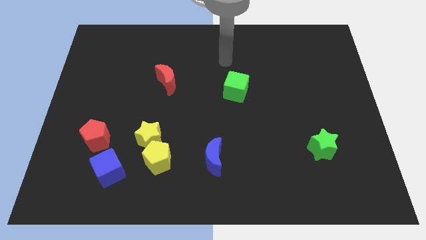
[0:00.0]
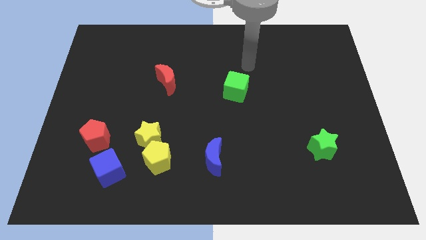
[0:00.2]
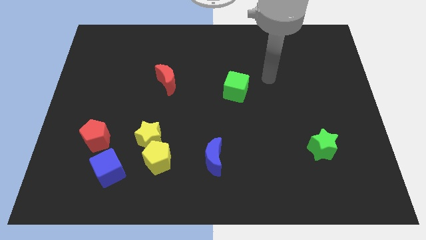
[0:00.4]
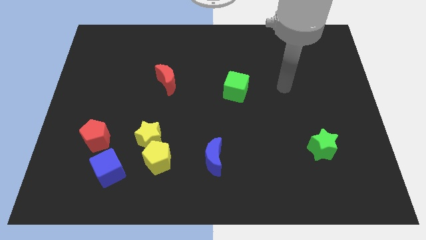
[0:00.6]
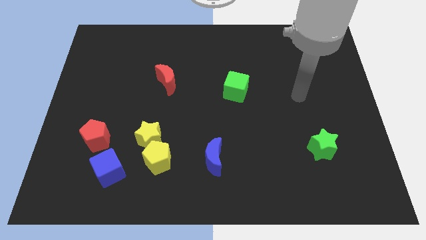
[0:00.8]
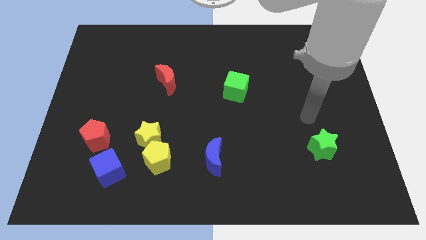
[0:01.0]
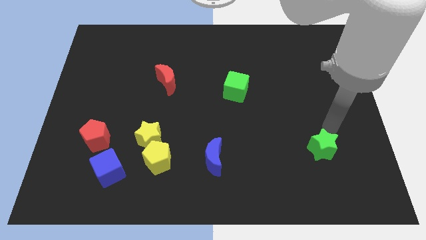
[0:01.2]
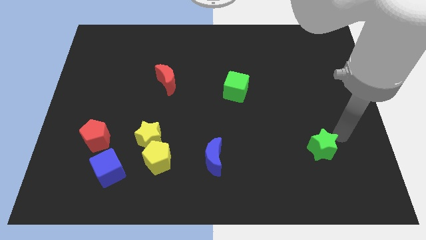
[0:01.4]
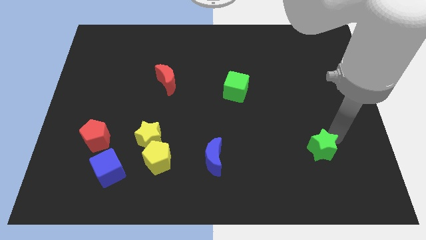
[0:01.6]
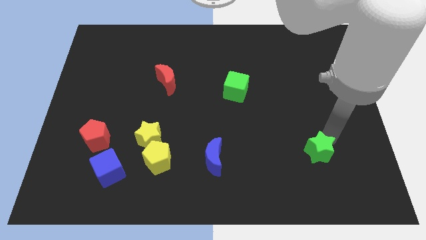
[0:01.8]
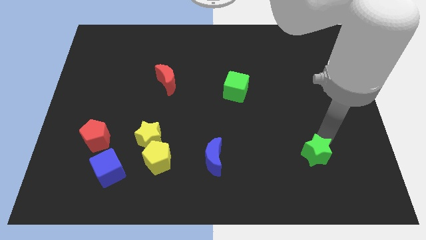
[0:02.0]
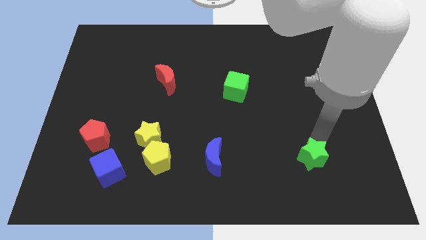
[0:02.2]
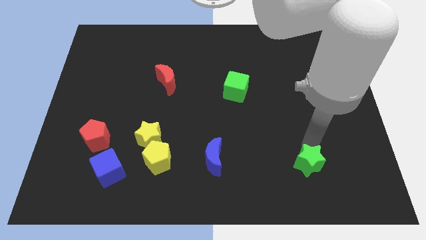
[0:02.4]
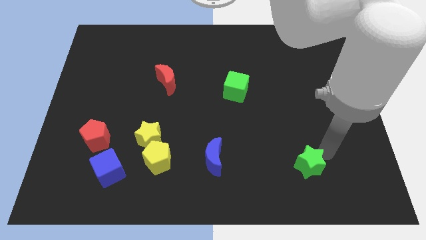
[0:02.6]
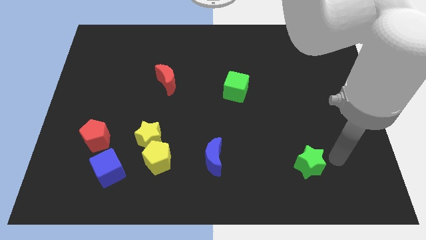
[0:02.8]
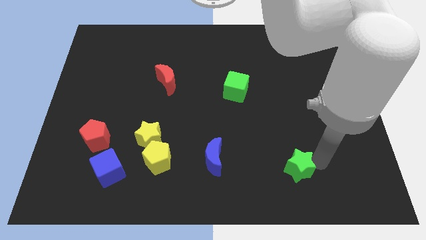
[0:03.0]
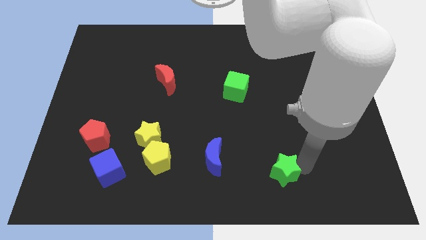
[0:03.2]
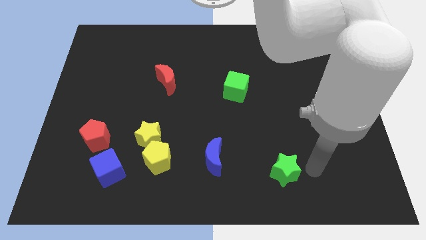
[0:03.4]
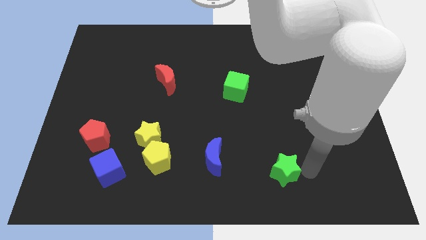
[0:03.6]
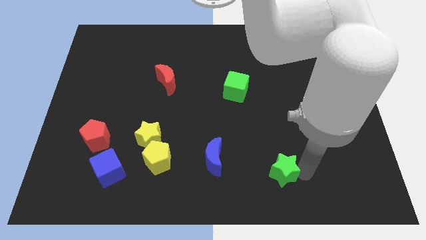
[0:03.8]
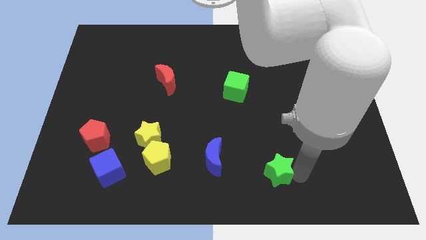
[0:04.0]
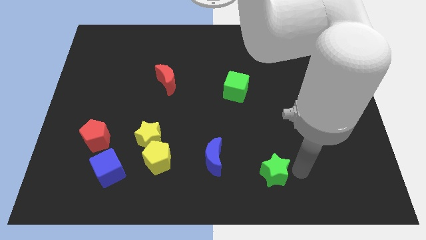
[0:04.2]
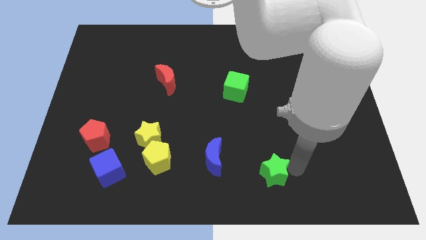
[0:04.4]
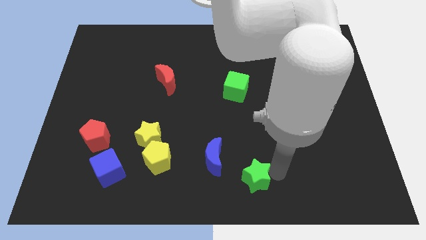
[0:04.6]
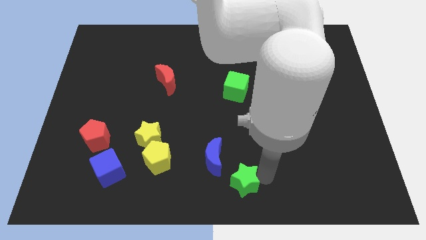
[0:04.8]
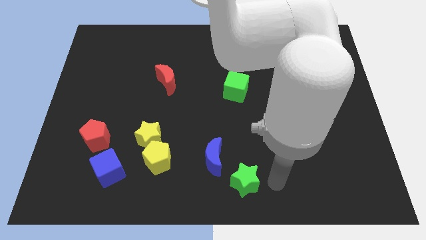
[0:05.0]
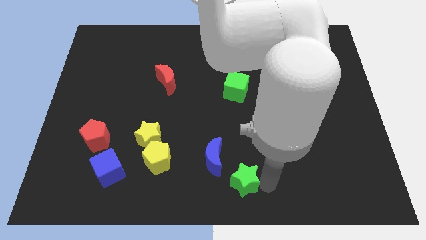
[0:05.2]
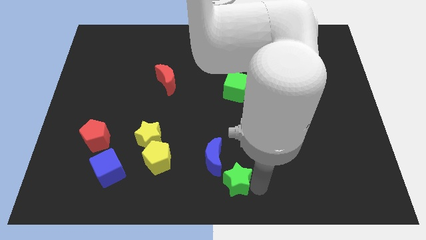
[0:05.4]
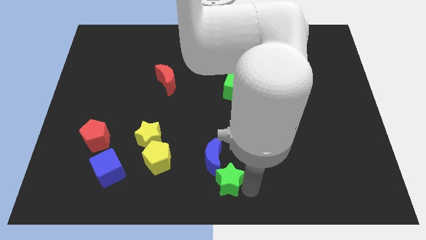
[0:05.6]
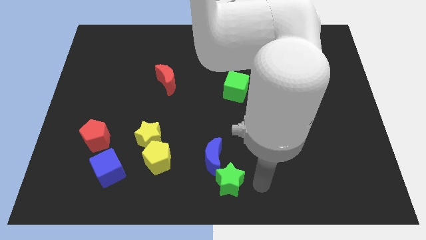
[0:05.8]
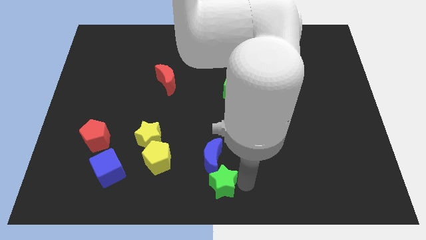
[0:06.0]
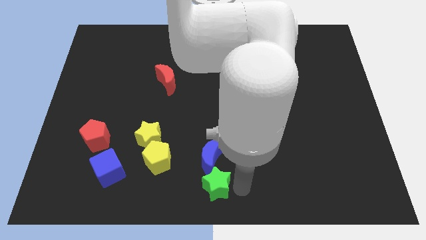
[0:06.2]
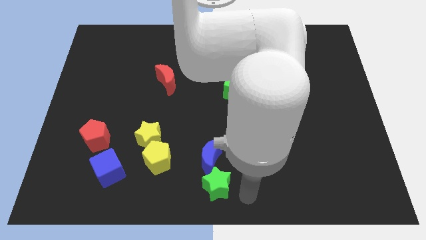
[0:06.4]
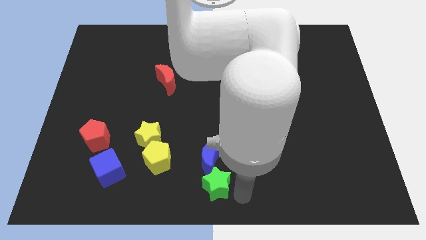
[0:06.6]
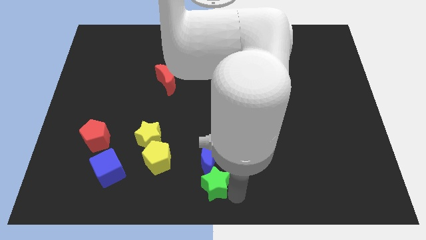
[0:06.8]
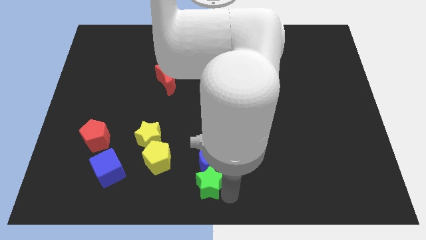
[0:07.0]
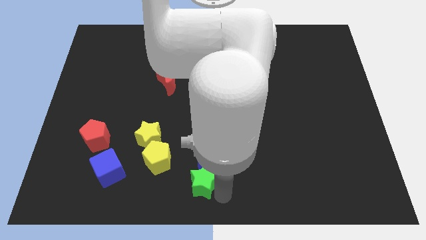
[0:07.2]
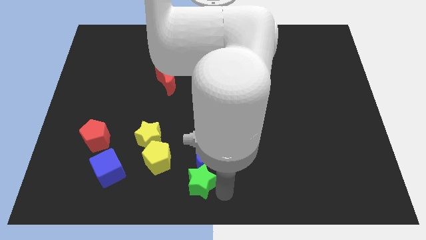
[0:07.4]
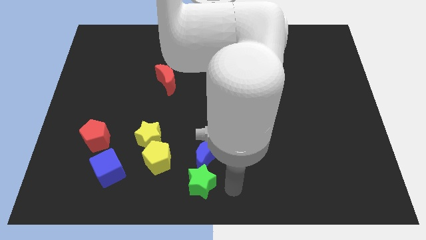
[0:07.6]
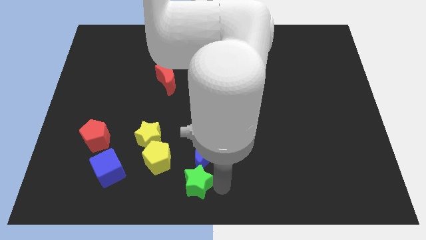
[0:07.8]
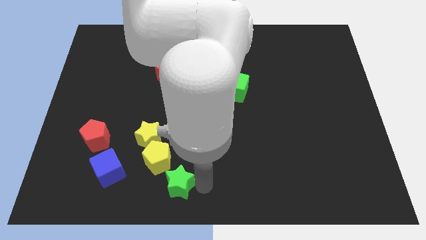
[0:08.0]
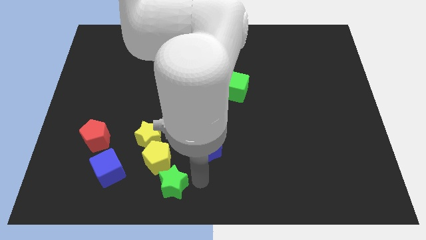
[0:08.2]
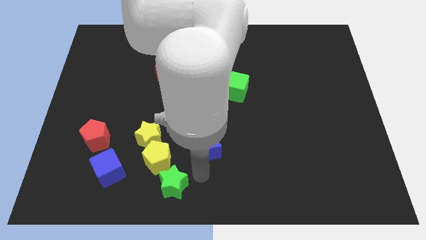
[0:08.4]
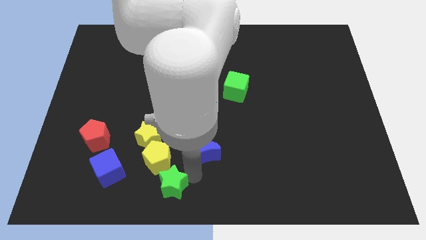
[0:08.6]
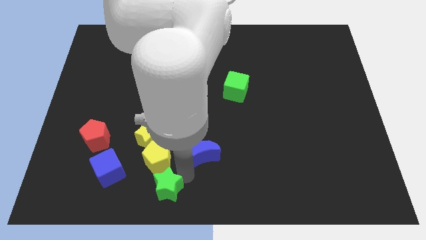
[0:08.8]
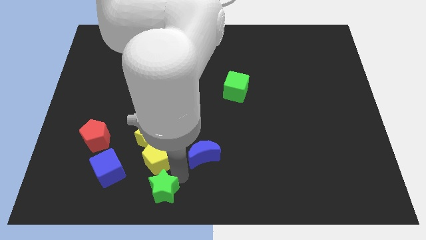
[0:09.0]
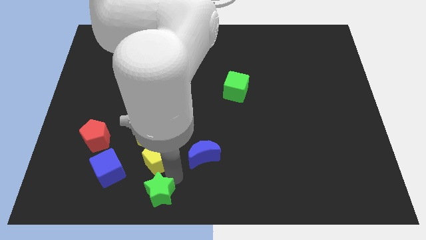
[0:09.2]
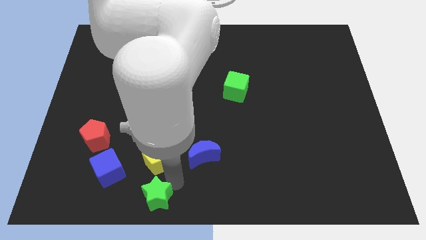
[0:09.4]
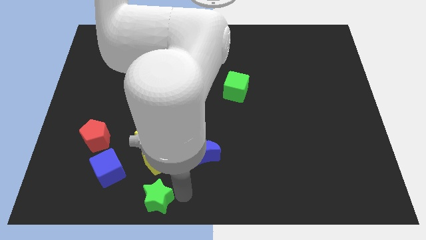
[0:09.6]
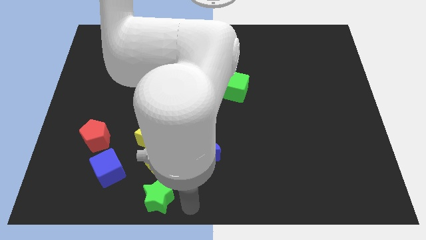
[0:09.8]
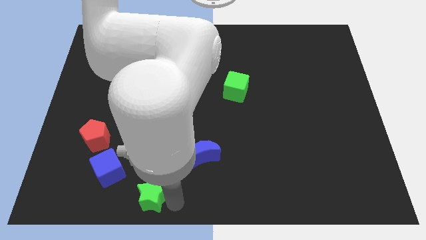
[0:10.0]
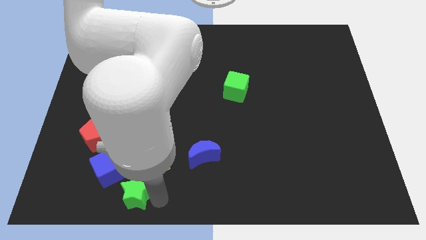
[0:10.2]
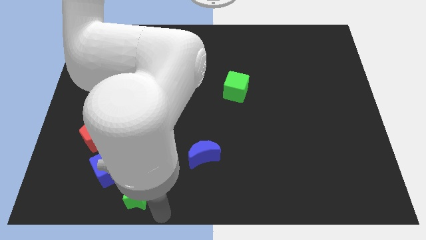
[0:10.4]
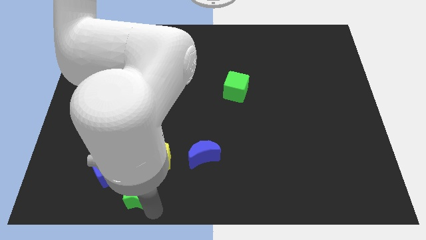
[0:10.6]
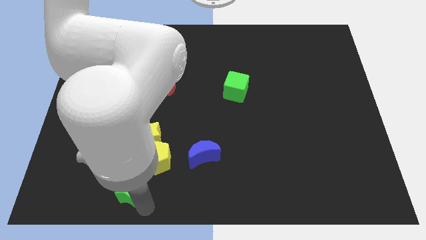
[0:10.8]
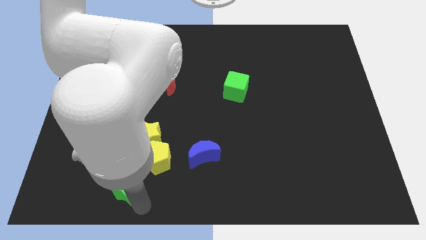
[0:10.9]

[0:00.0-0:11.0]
slide the green star to the blue cube

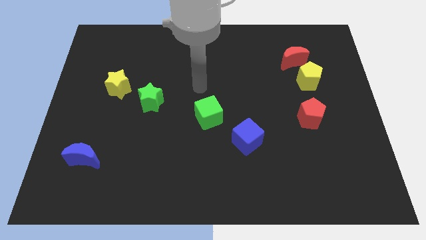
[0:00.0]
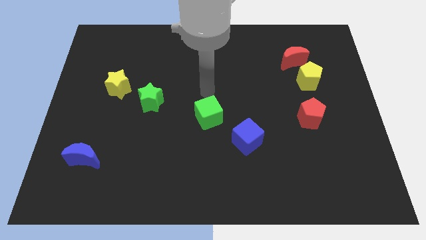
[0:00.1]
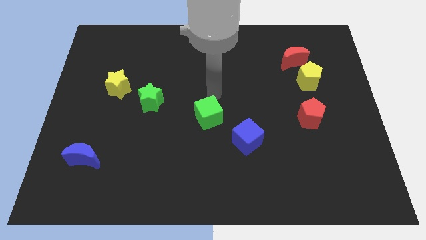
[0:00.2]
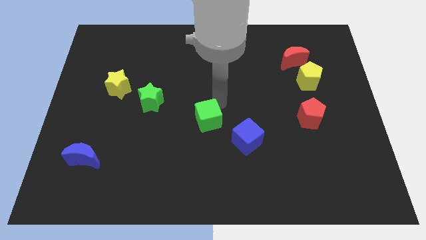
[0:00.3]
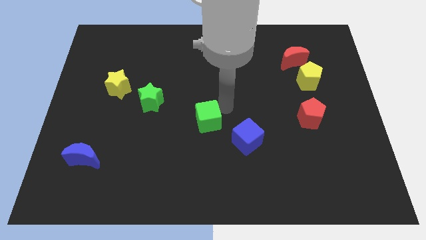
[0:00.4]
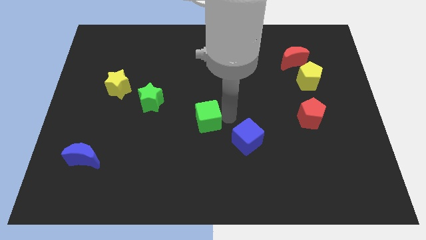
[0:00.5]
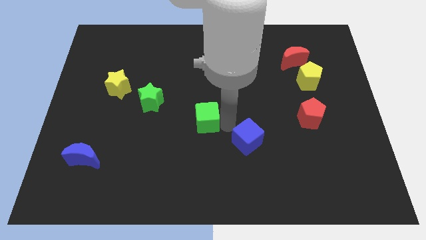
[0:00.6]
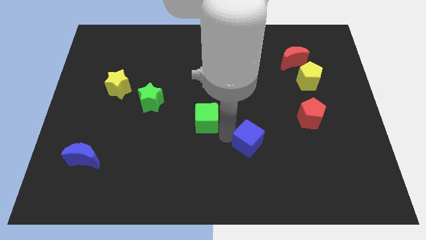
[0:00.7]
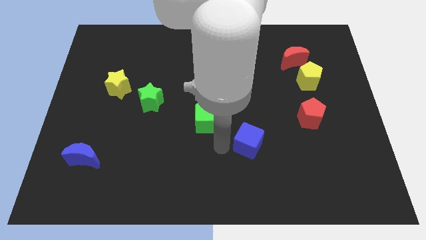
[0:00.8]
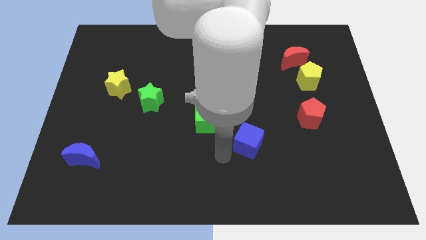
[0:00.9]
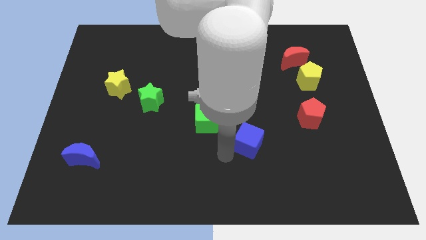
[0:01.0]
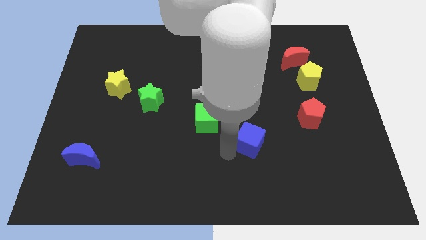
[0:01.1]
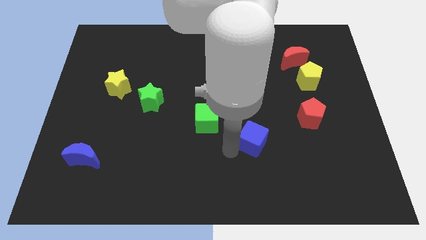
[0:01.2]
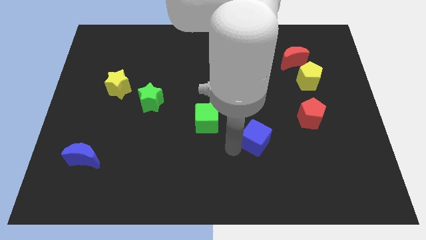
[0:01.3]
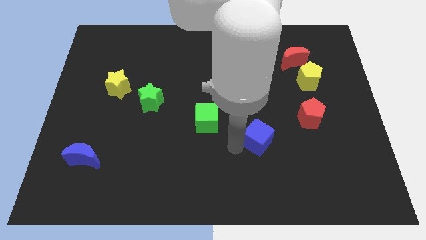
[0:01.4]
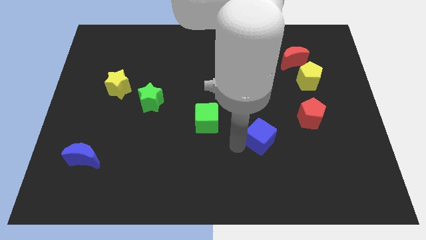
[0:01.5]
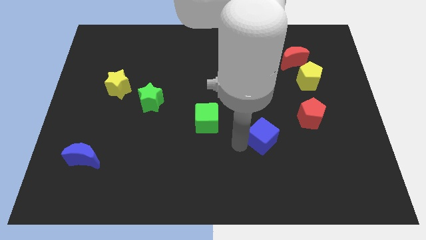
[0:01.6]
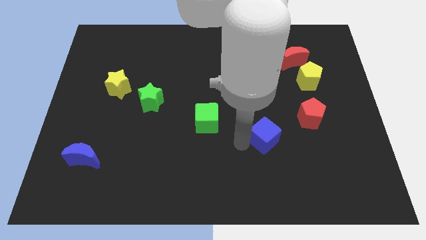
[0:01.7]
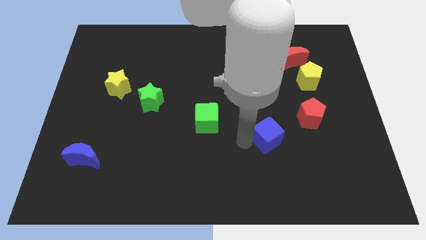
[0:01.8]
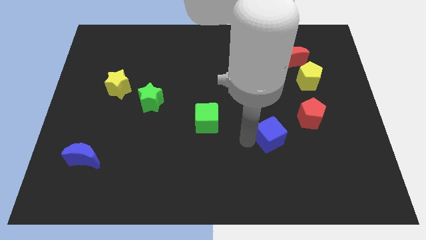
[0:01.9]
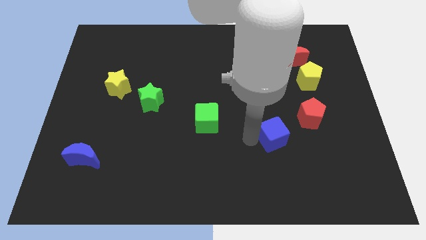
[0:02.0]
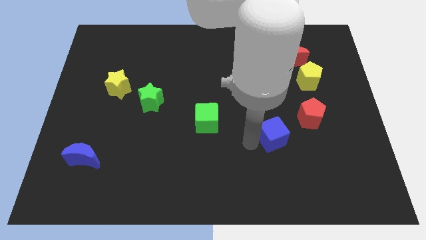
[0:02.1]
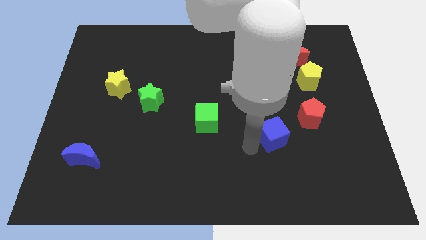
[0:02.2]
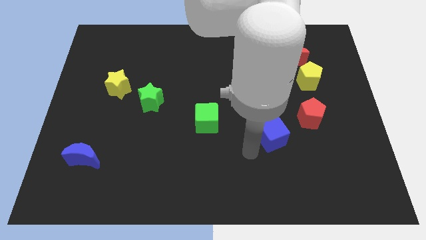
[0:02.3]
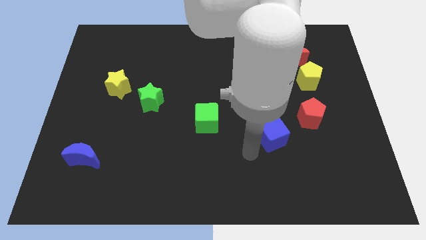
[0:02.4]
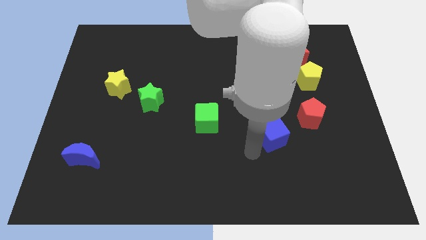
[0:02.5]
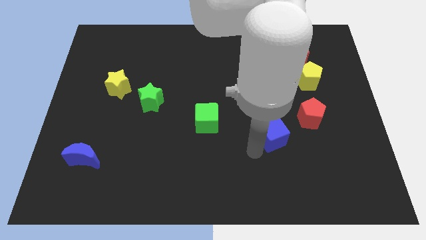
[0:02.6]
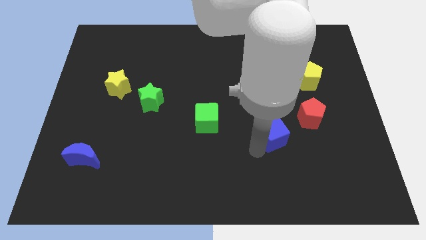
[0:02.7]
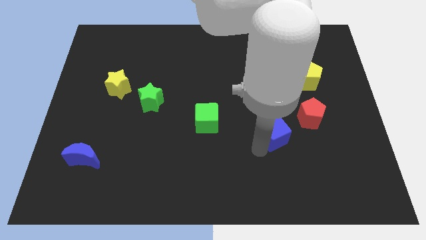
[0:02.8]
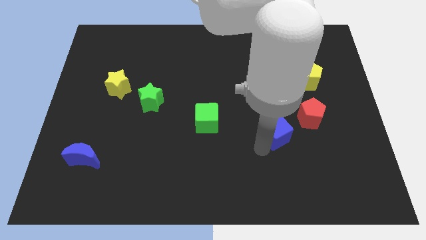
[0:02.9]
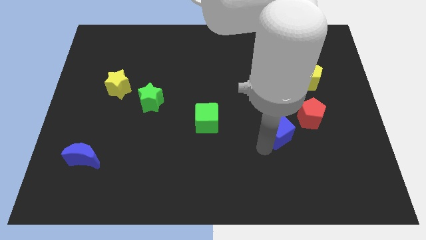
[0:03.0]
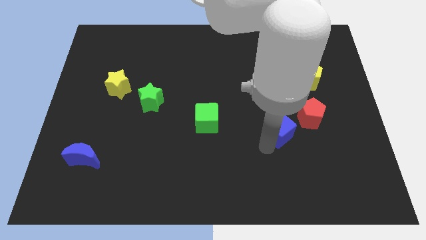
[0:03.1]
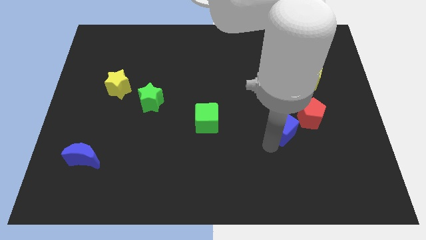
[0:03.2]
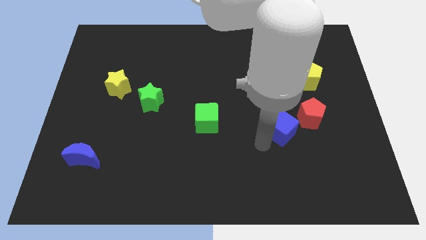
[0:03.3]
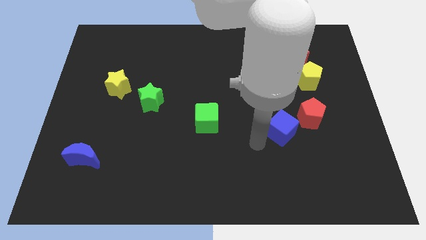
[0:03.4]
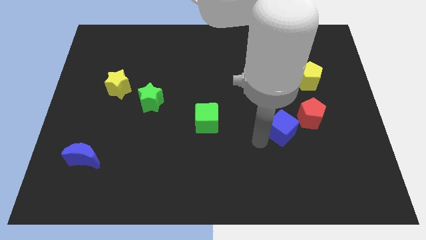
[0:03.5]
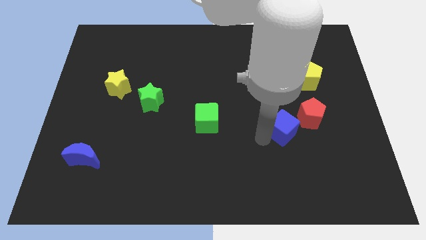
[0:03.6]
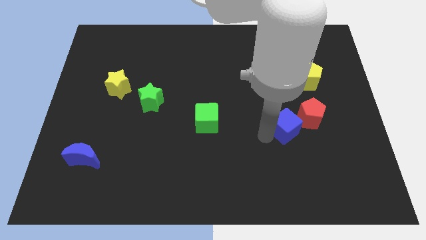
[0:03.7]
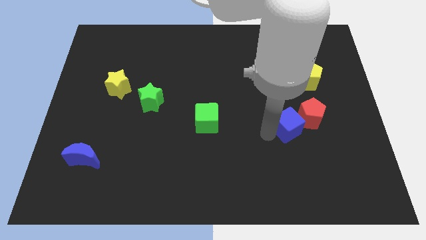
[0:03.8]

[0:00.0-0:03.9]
push the blue cube close to the red pentagon
